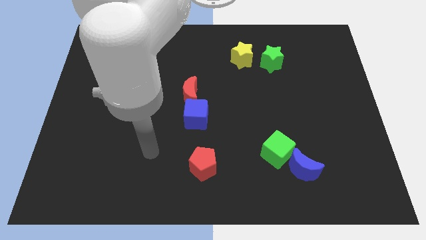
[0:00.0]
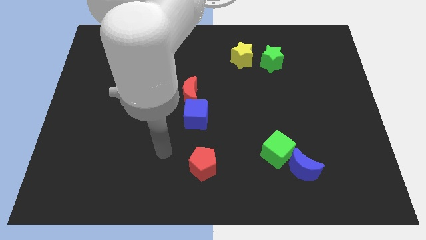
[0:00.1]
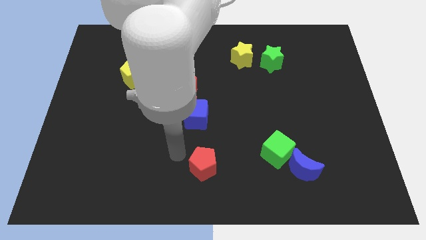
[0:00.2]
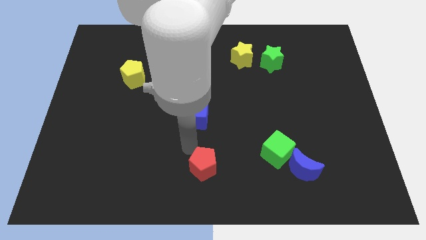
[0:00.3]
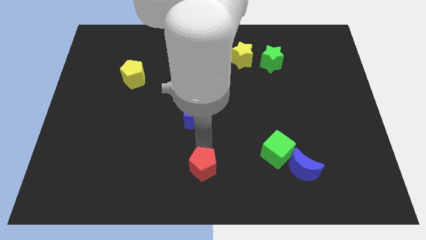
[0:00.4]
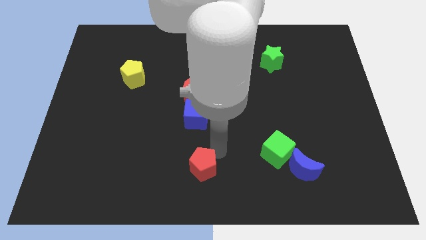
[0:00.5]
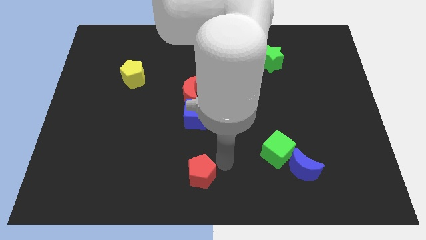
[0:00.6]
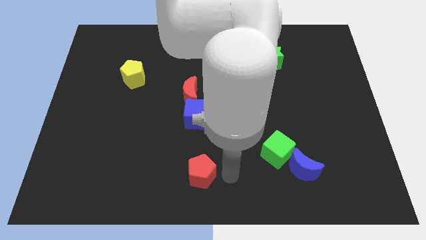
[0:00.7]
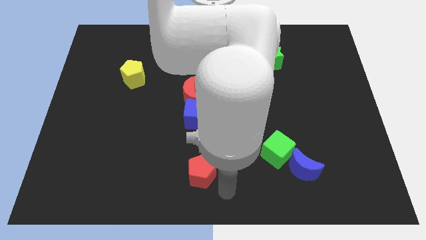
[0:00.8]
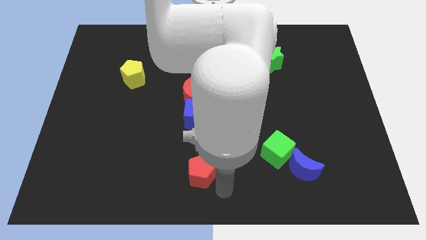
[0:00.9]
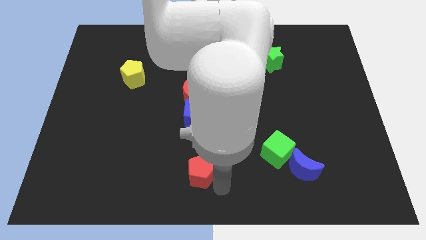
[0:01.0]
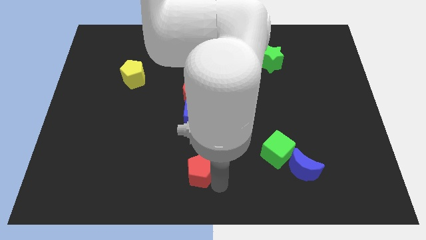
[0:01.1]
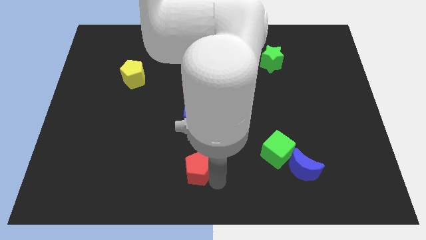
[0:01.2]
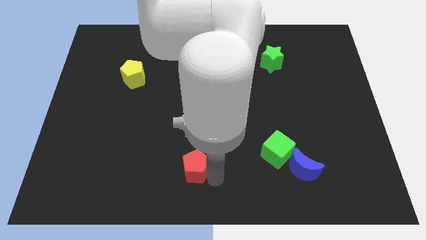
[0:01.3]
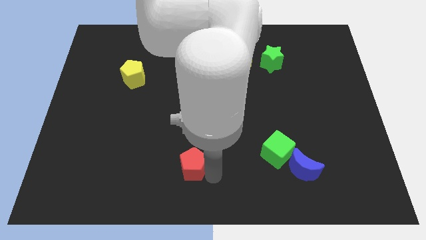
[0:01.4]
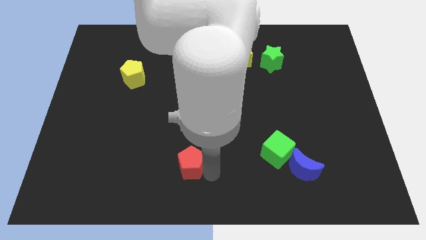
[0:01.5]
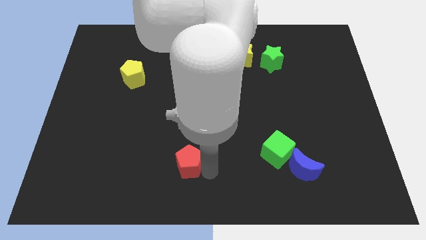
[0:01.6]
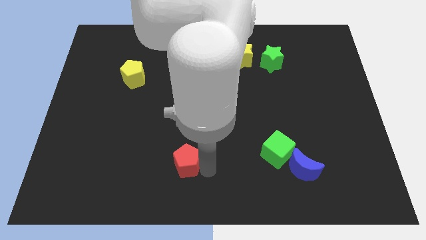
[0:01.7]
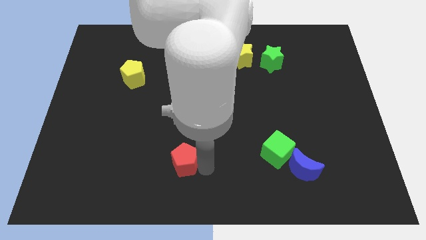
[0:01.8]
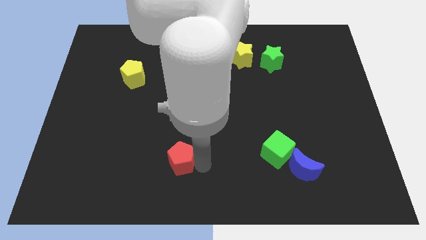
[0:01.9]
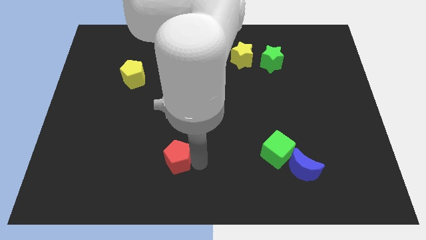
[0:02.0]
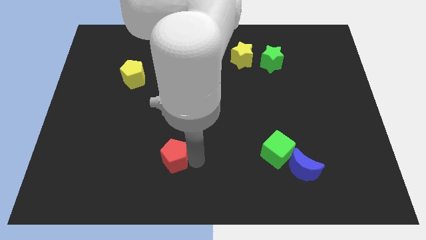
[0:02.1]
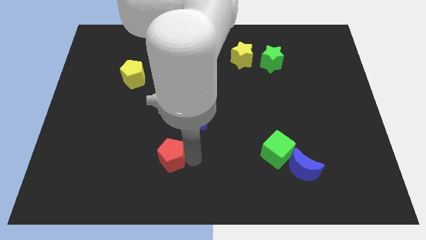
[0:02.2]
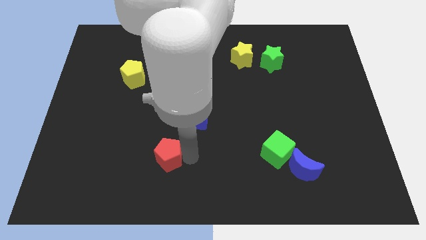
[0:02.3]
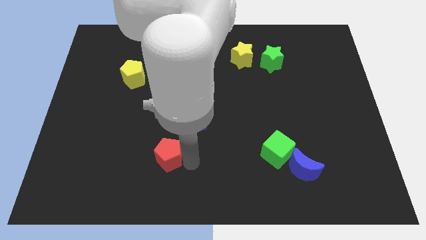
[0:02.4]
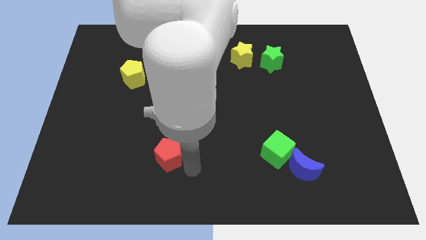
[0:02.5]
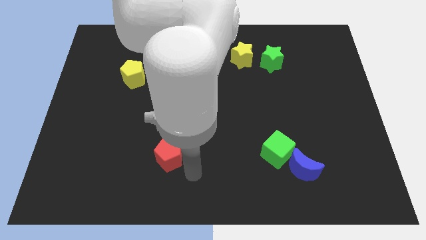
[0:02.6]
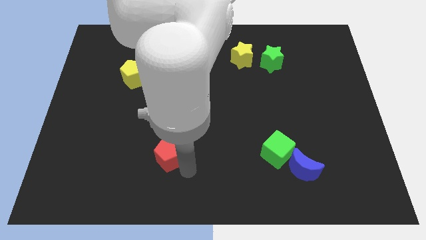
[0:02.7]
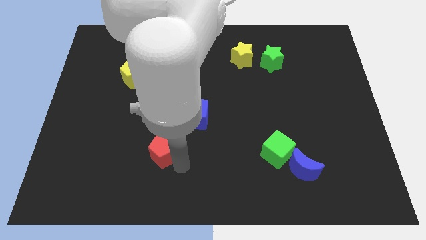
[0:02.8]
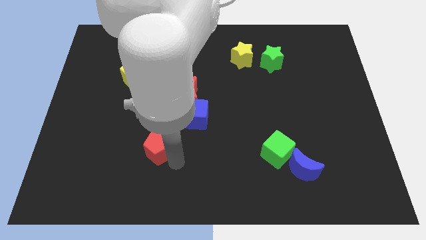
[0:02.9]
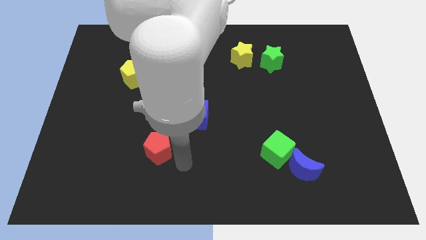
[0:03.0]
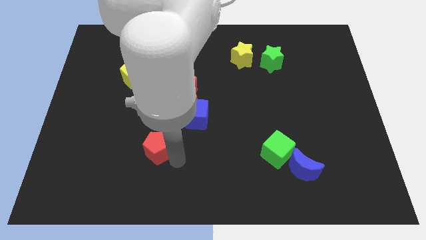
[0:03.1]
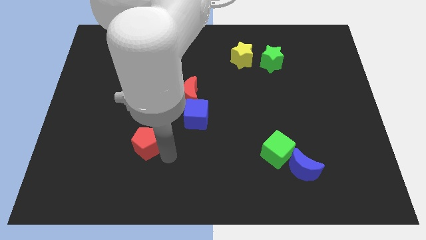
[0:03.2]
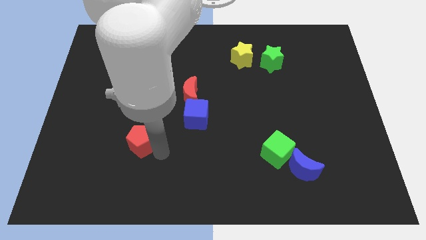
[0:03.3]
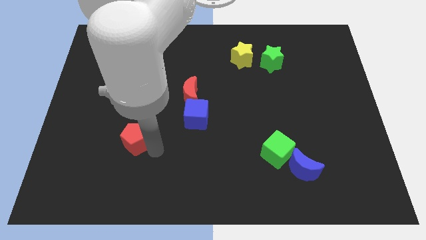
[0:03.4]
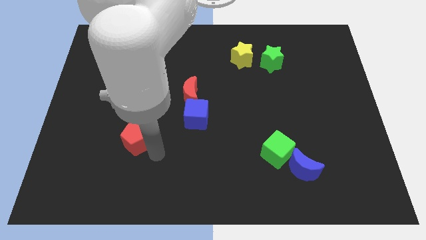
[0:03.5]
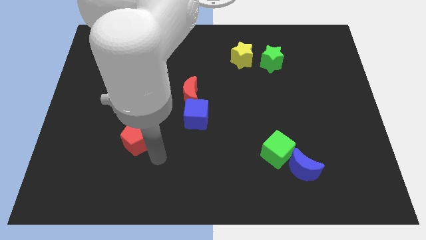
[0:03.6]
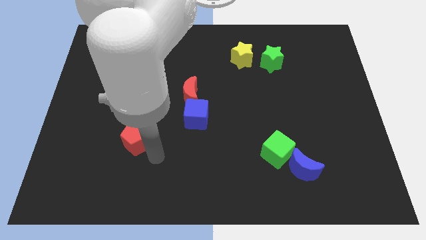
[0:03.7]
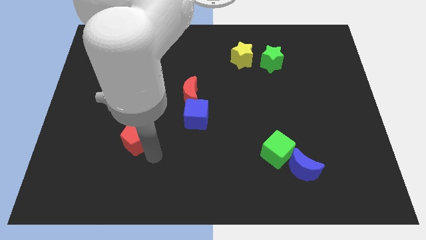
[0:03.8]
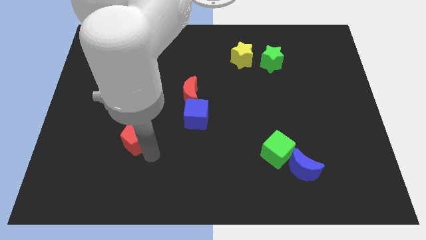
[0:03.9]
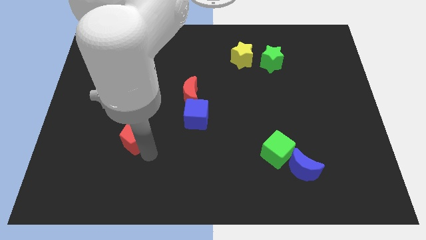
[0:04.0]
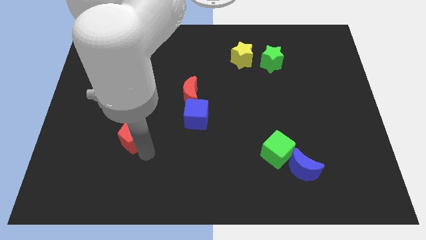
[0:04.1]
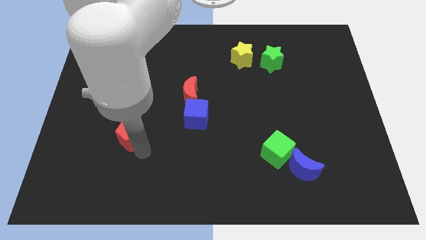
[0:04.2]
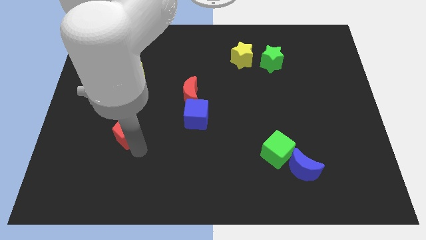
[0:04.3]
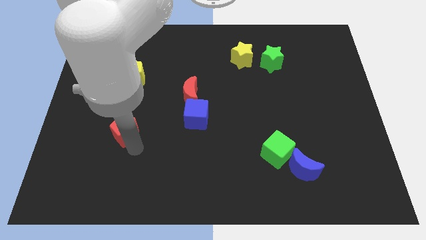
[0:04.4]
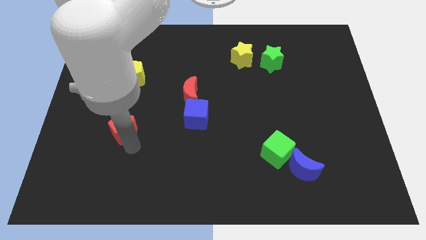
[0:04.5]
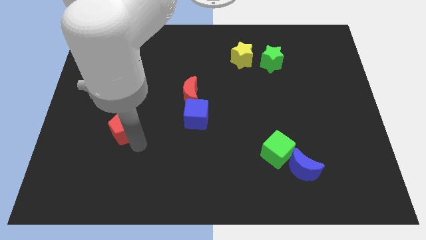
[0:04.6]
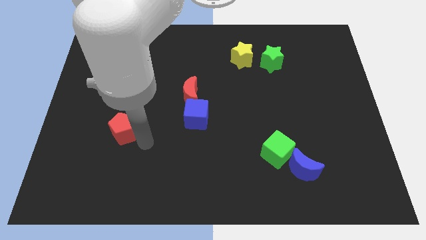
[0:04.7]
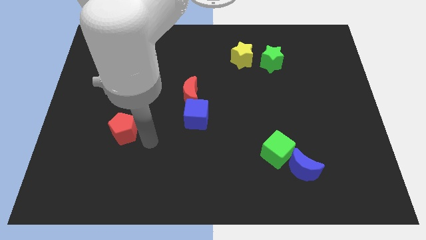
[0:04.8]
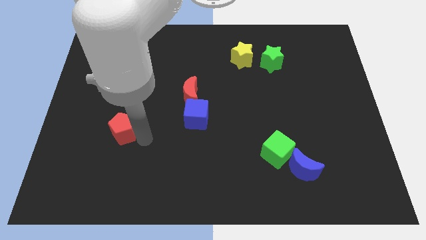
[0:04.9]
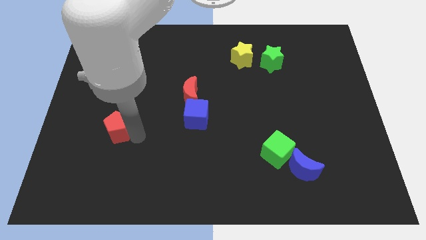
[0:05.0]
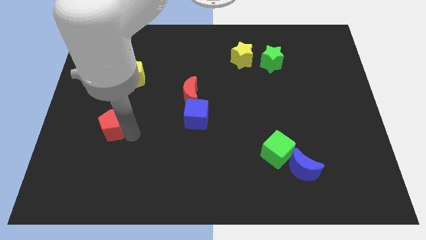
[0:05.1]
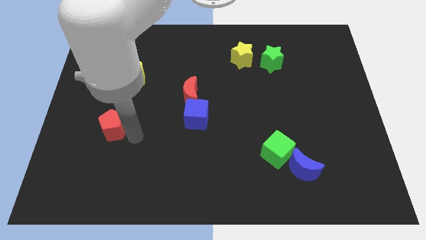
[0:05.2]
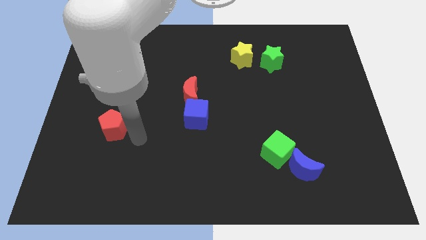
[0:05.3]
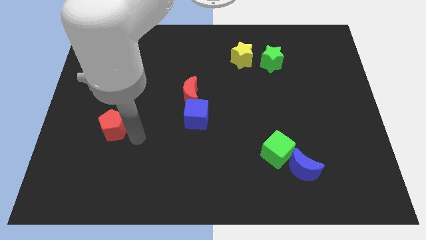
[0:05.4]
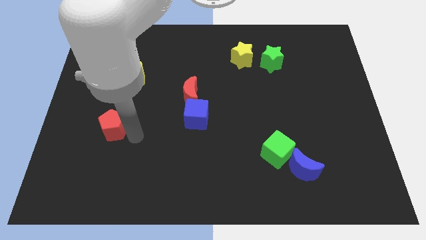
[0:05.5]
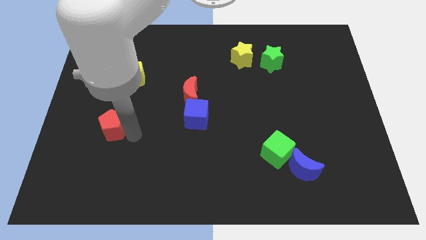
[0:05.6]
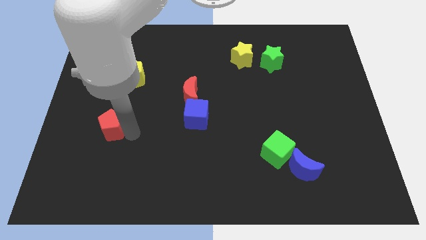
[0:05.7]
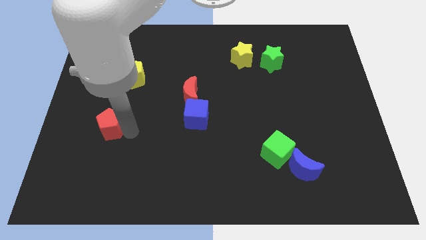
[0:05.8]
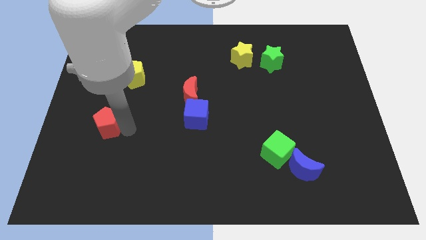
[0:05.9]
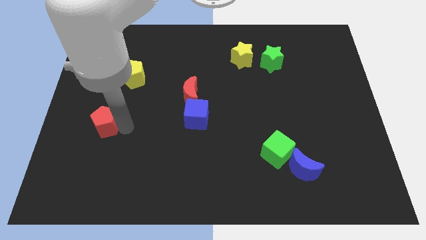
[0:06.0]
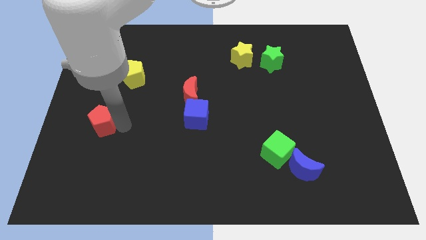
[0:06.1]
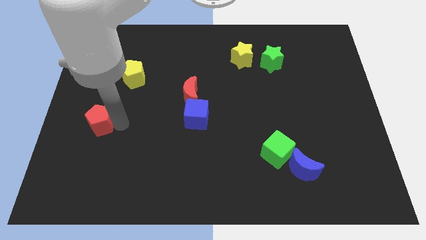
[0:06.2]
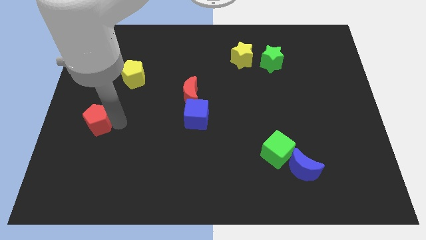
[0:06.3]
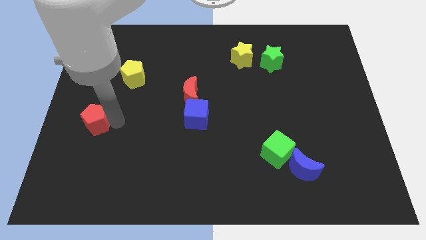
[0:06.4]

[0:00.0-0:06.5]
move the red pentagon to the left side
